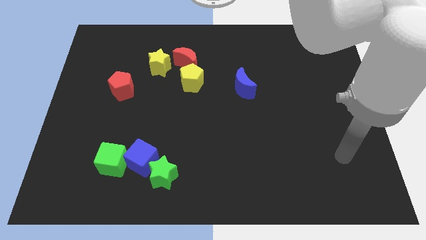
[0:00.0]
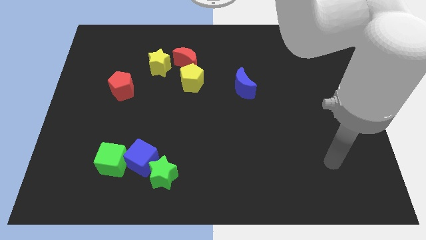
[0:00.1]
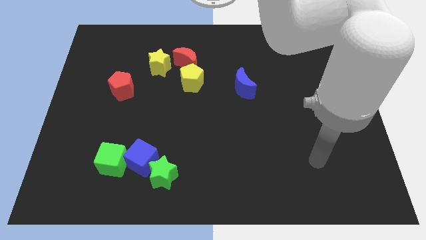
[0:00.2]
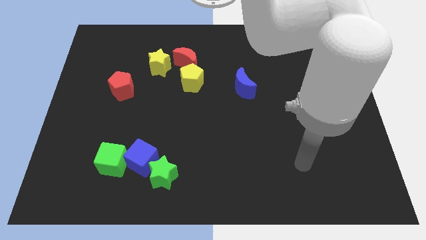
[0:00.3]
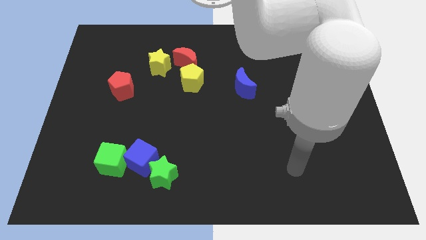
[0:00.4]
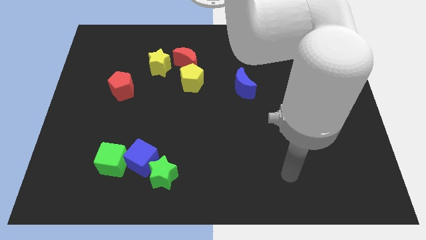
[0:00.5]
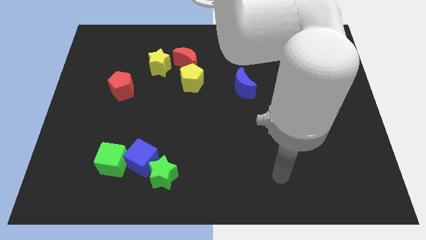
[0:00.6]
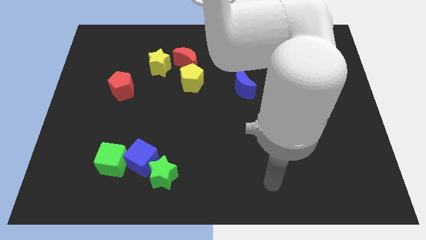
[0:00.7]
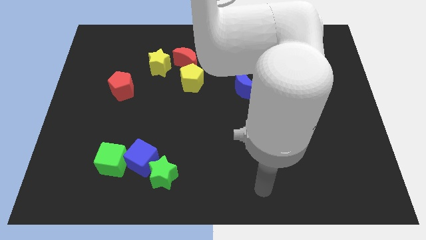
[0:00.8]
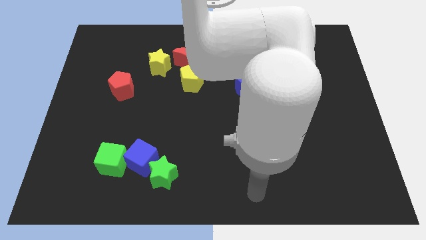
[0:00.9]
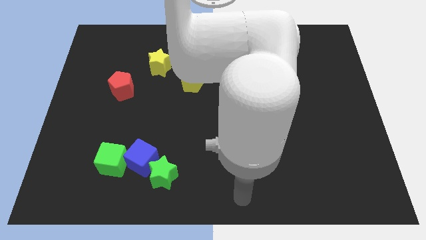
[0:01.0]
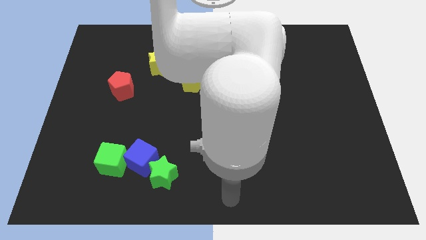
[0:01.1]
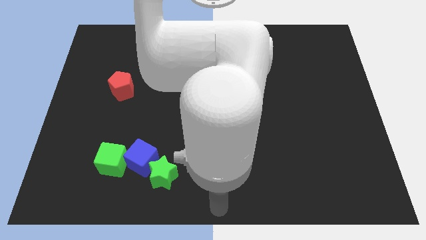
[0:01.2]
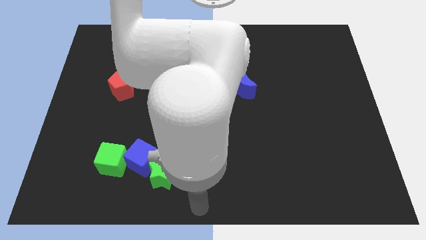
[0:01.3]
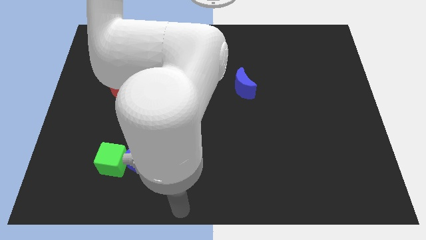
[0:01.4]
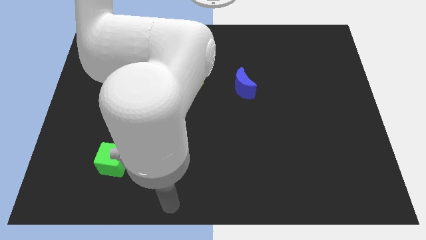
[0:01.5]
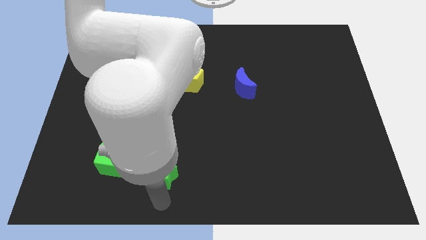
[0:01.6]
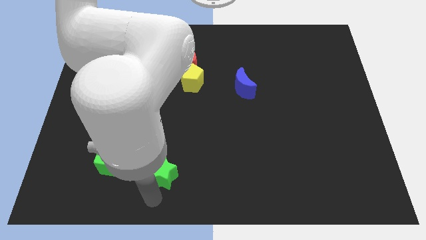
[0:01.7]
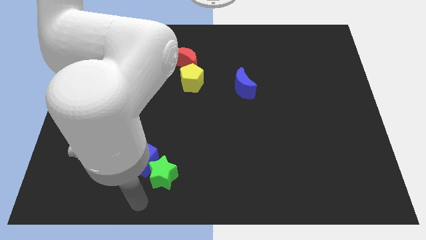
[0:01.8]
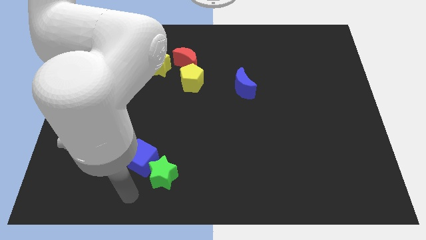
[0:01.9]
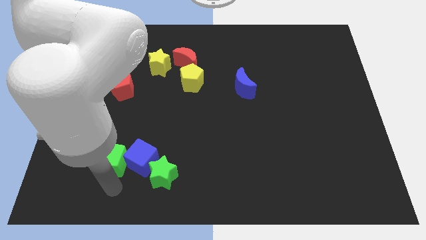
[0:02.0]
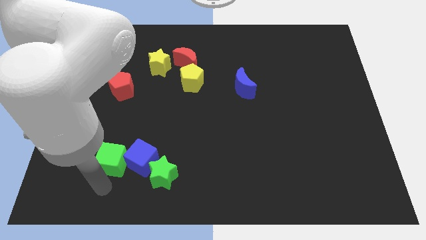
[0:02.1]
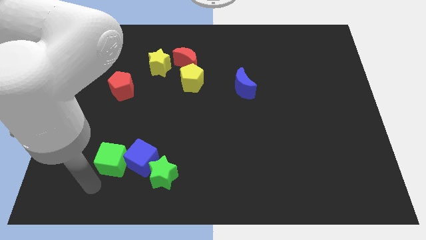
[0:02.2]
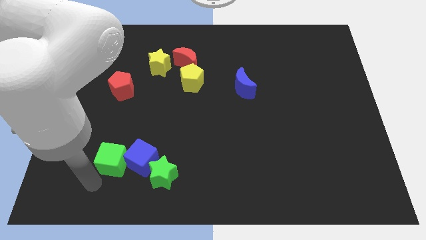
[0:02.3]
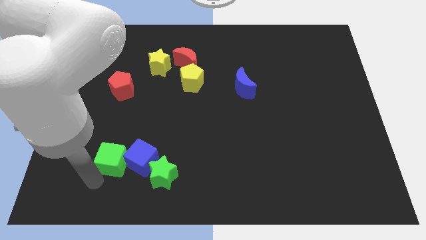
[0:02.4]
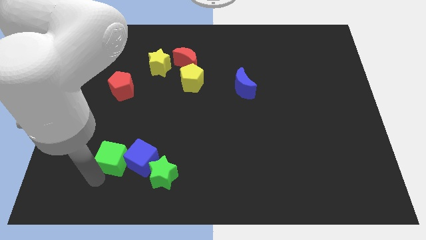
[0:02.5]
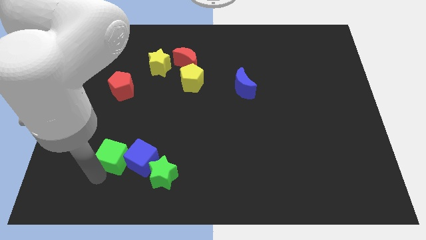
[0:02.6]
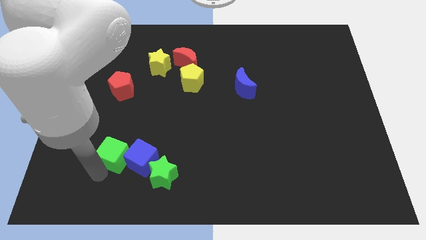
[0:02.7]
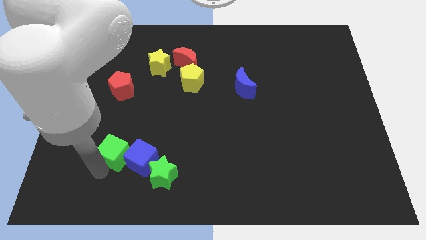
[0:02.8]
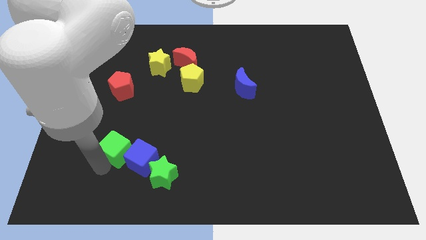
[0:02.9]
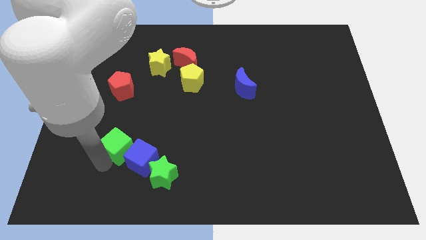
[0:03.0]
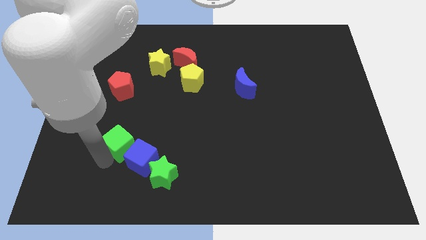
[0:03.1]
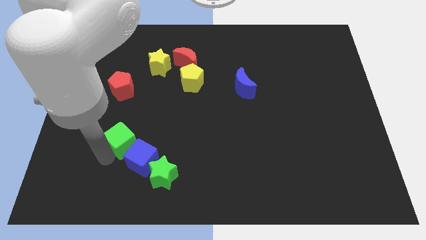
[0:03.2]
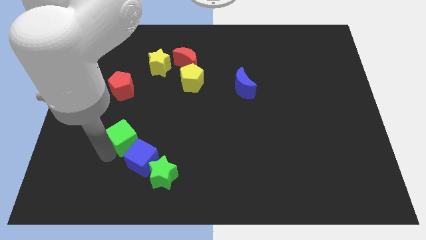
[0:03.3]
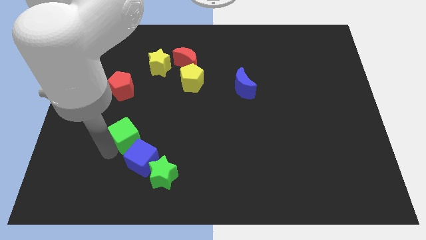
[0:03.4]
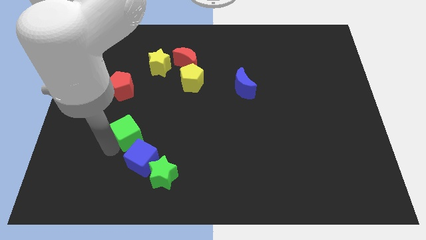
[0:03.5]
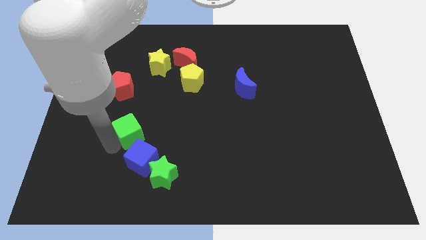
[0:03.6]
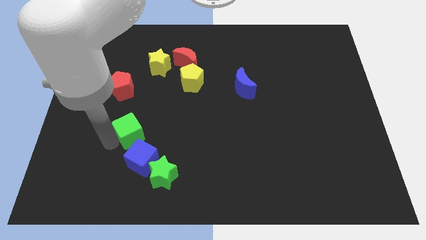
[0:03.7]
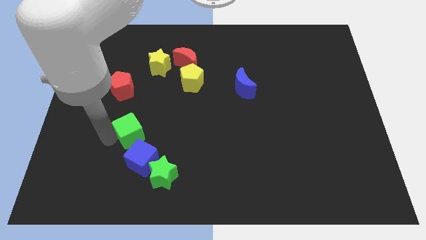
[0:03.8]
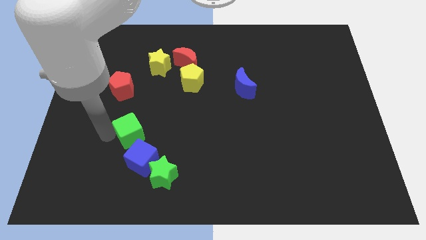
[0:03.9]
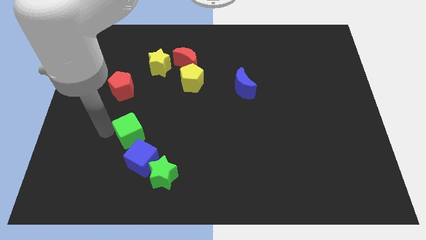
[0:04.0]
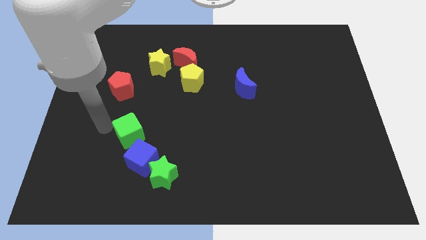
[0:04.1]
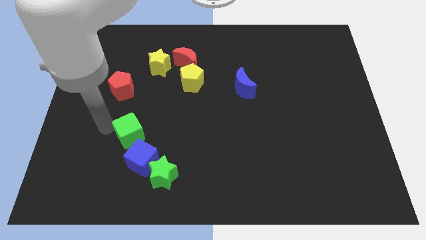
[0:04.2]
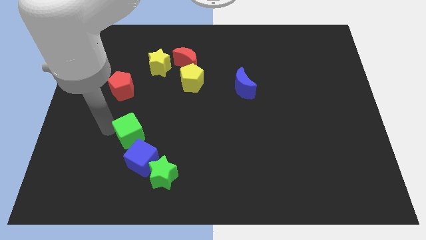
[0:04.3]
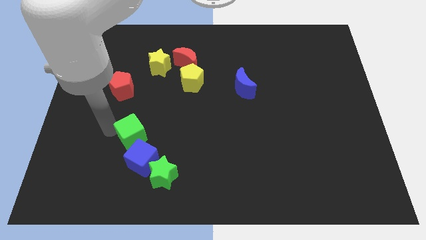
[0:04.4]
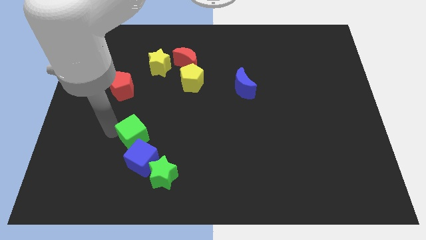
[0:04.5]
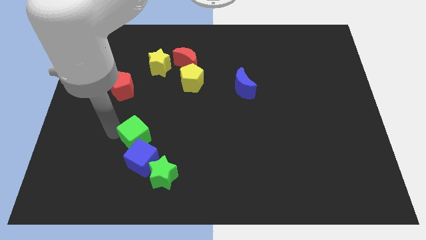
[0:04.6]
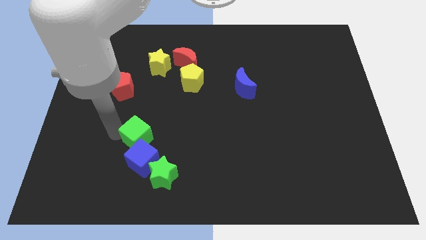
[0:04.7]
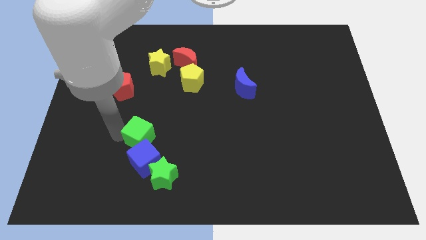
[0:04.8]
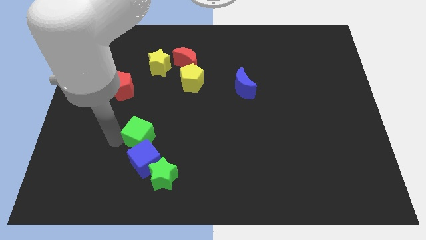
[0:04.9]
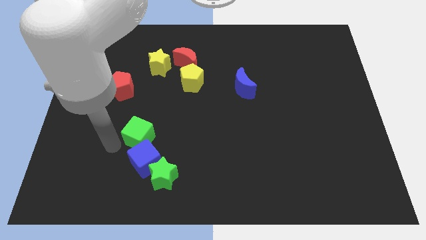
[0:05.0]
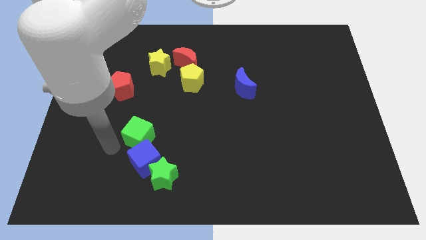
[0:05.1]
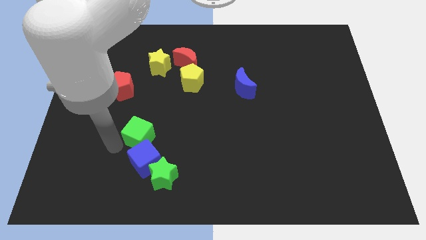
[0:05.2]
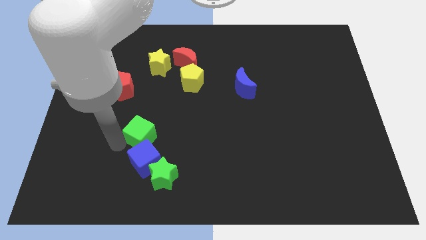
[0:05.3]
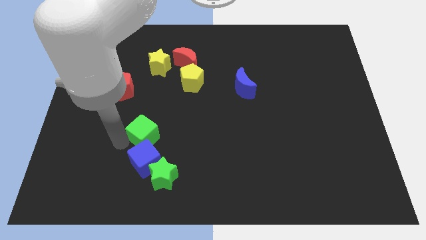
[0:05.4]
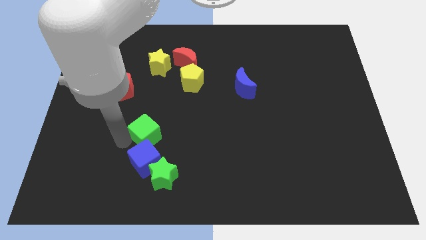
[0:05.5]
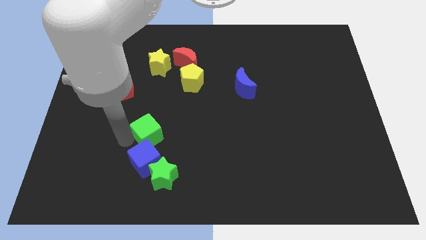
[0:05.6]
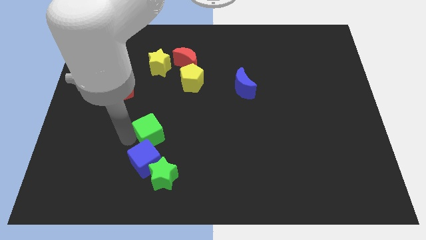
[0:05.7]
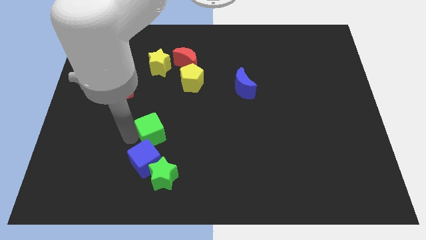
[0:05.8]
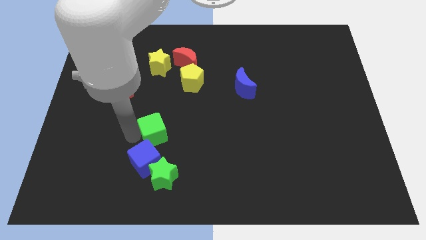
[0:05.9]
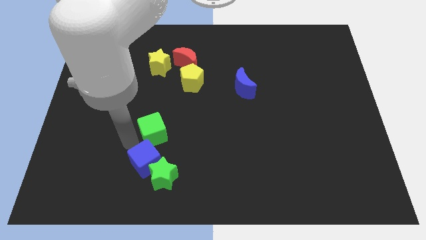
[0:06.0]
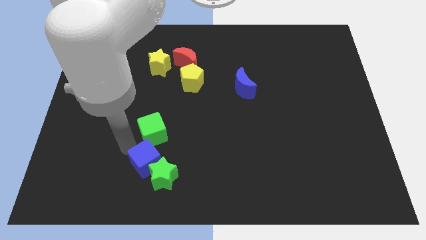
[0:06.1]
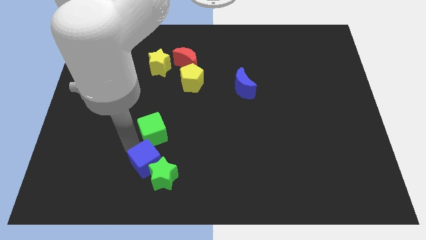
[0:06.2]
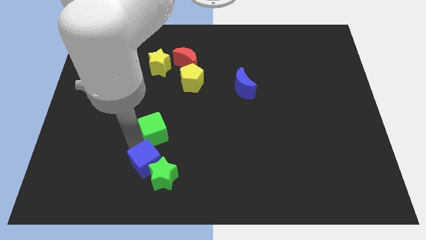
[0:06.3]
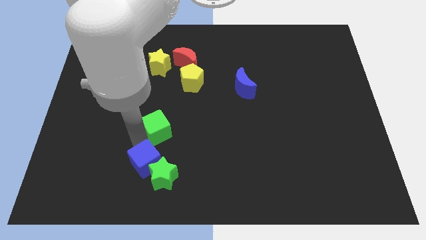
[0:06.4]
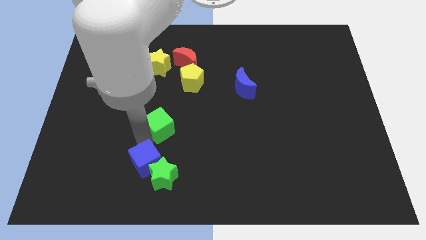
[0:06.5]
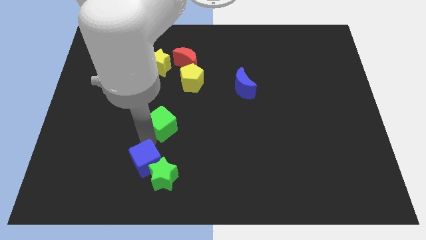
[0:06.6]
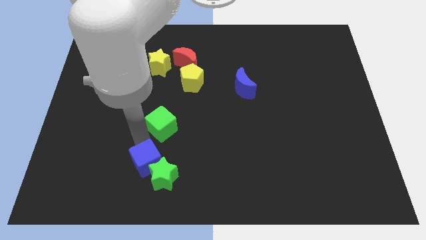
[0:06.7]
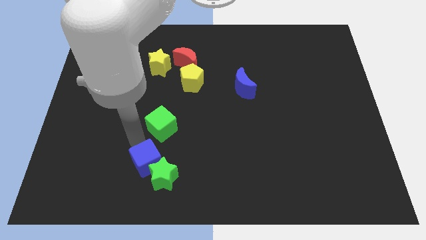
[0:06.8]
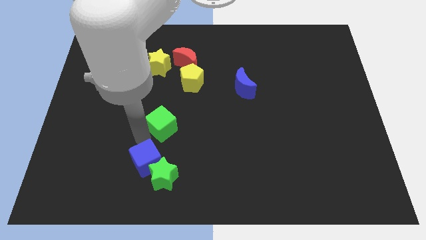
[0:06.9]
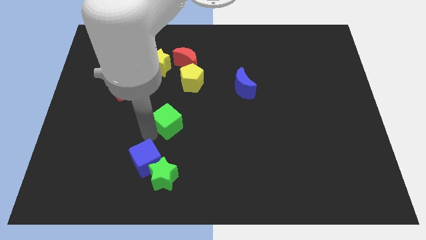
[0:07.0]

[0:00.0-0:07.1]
put the green cube to the middle of the board
